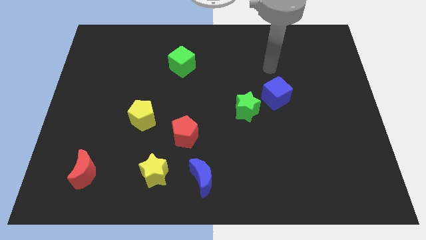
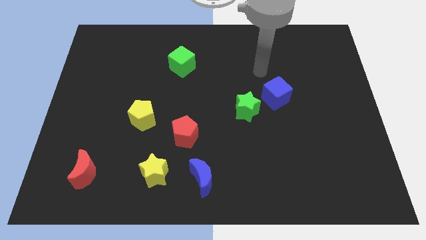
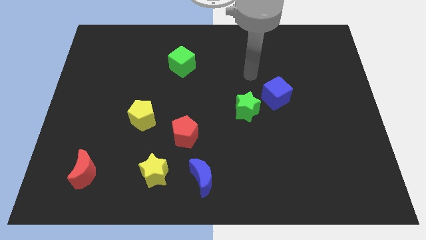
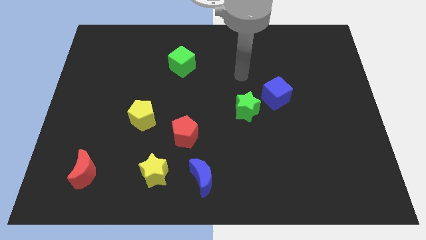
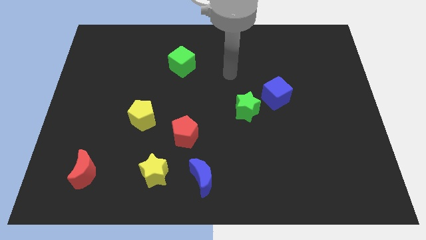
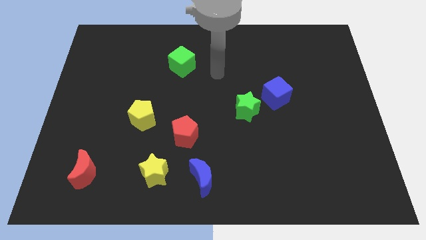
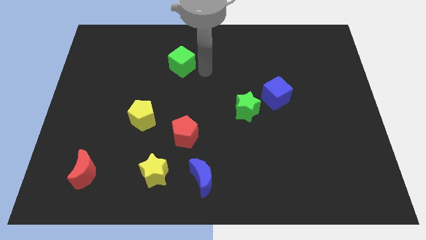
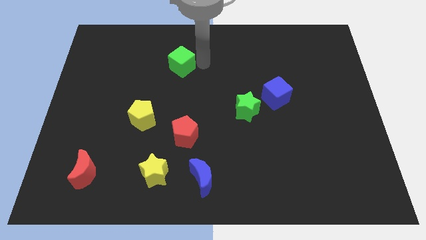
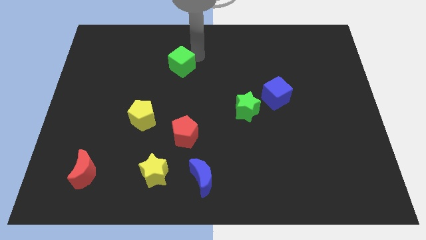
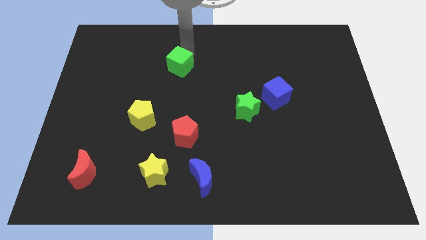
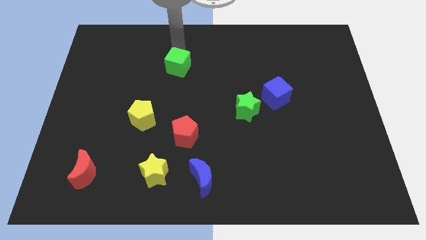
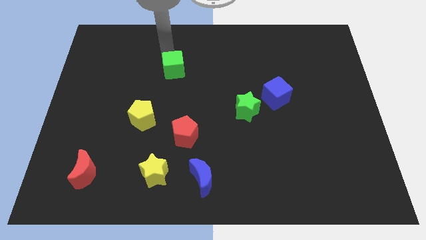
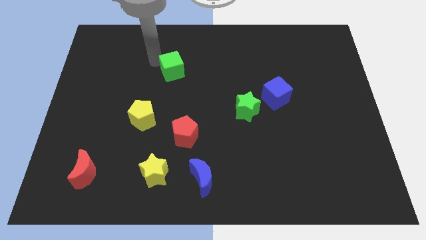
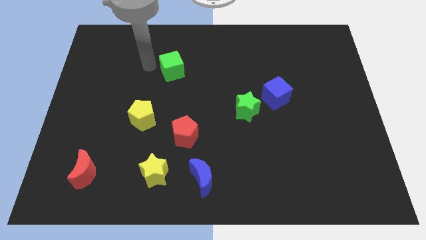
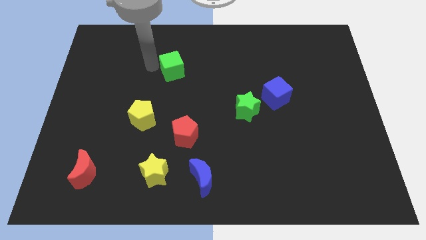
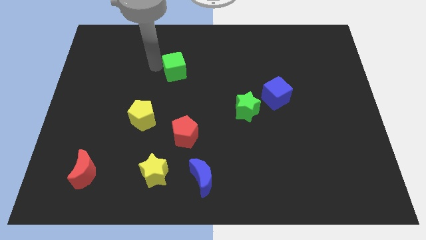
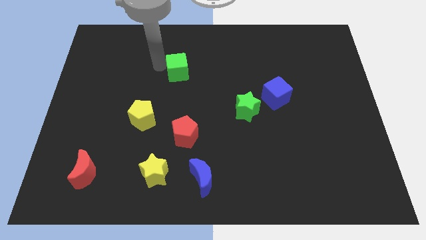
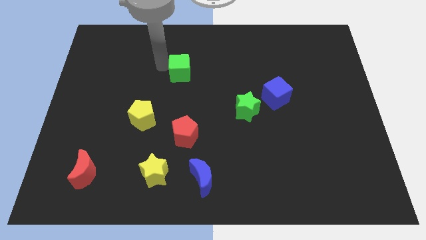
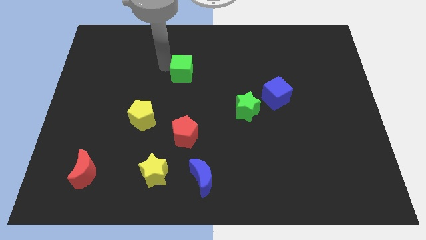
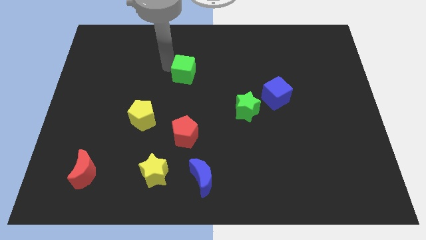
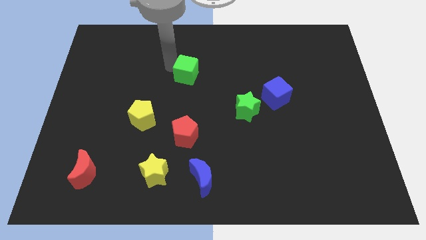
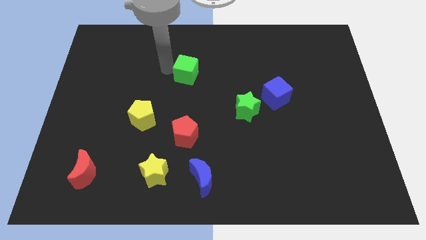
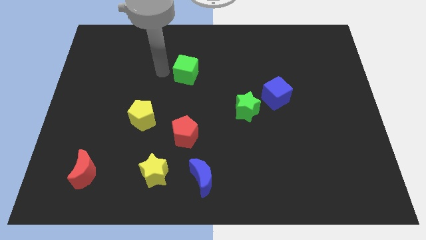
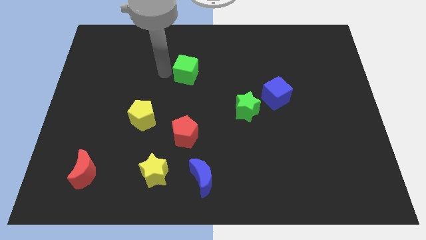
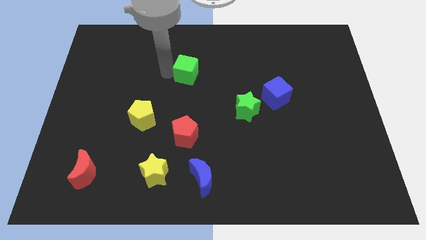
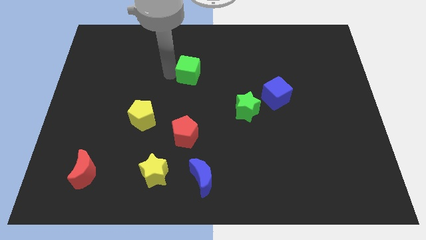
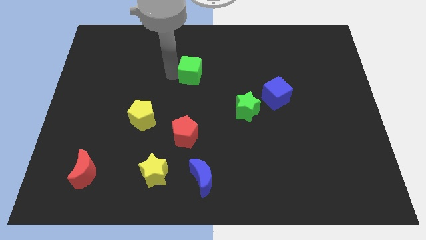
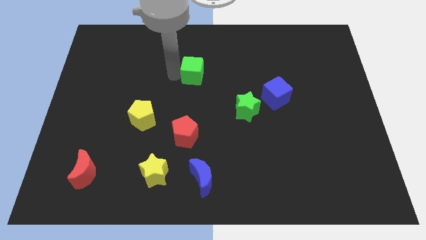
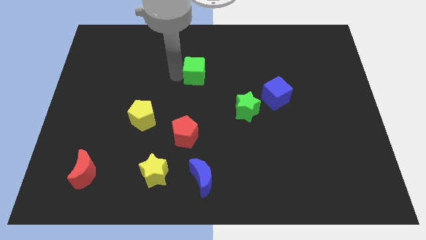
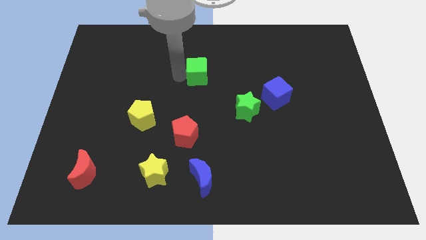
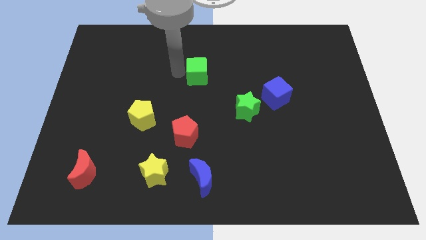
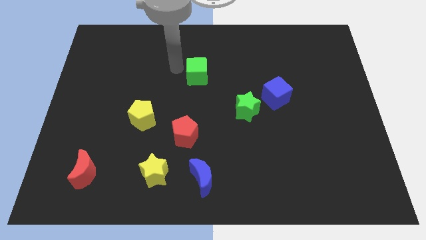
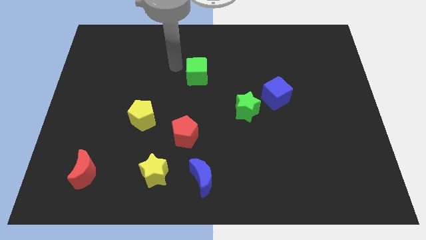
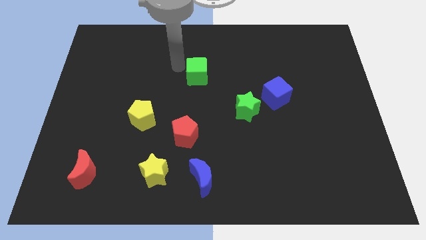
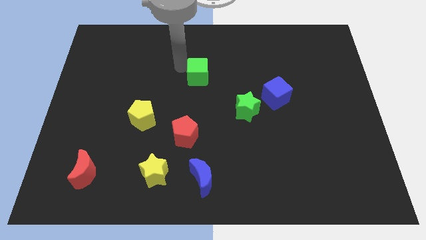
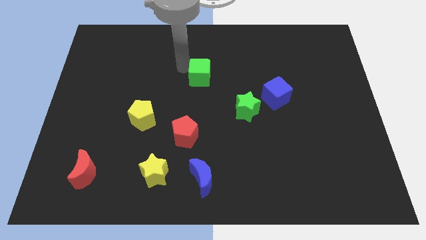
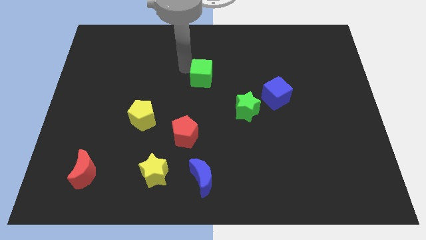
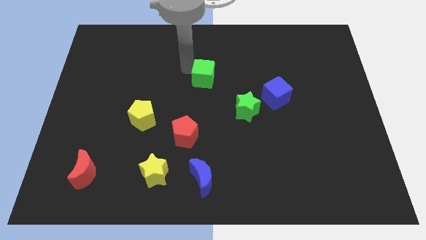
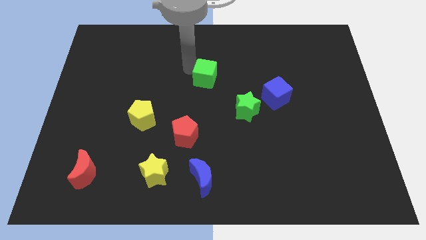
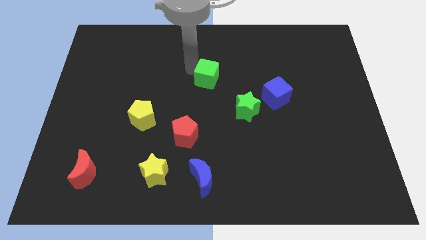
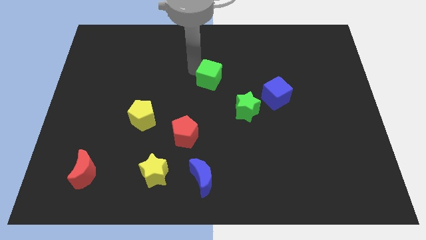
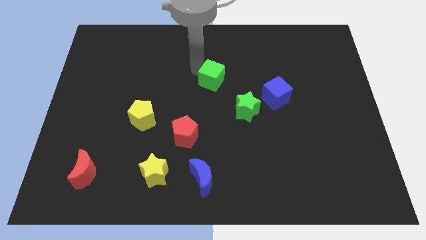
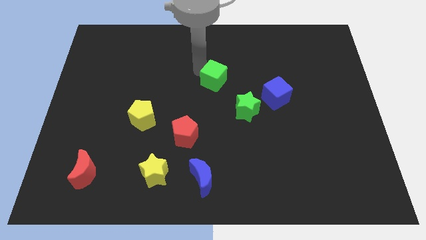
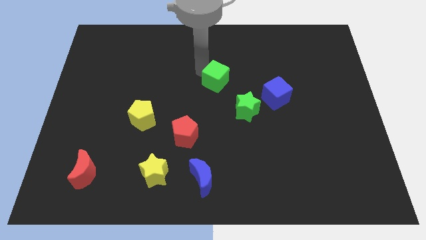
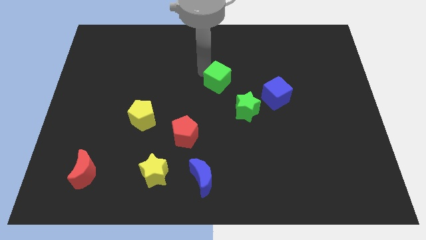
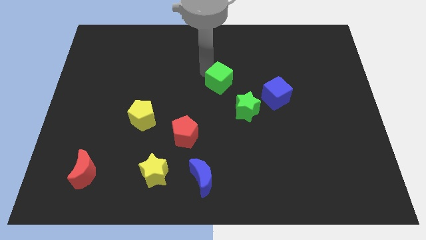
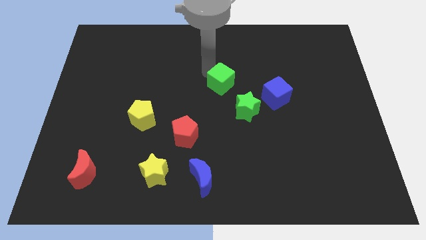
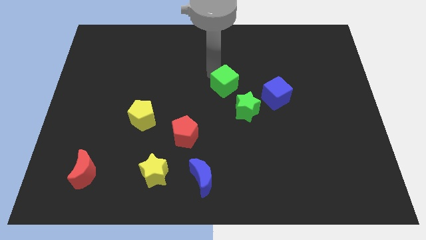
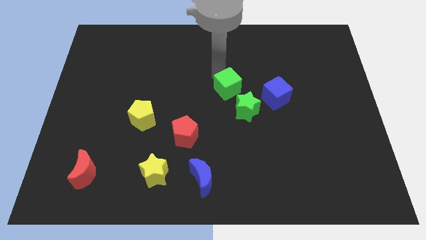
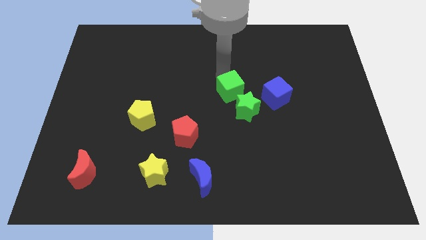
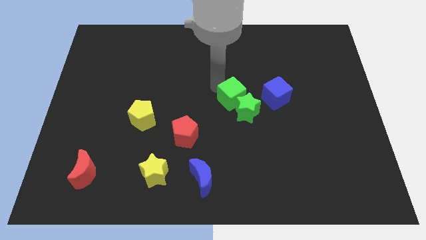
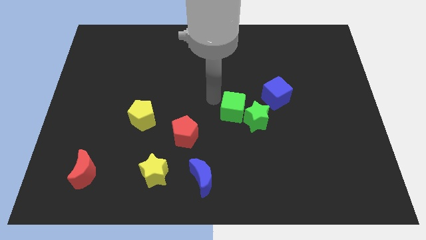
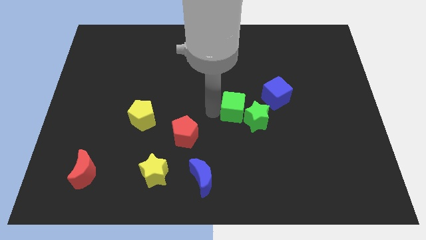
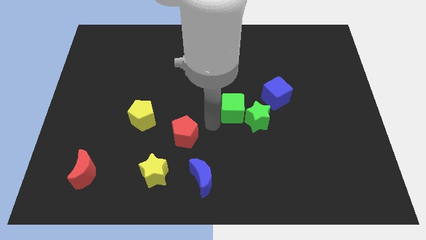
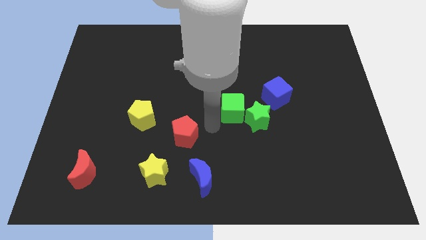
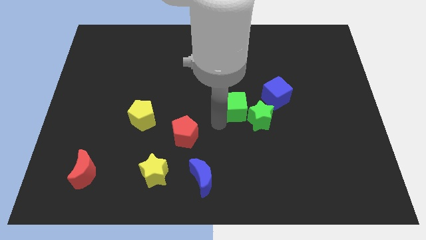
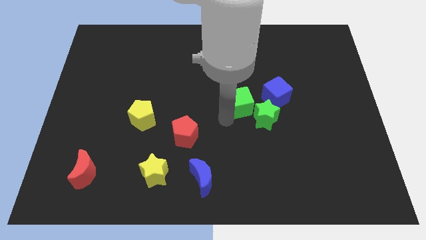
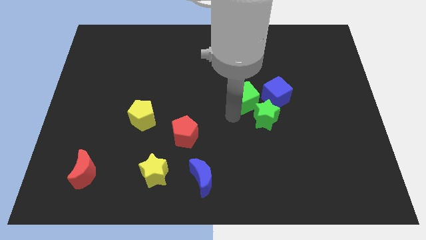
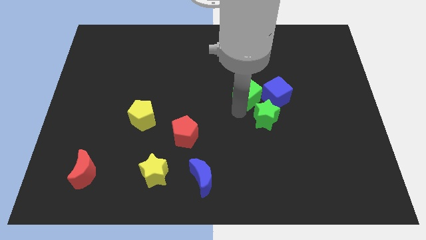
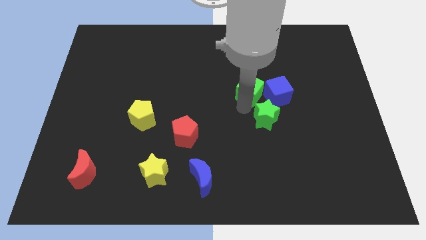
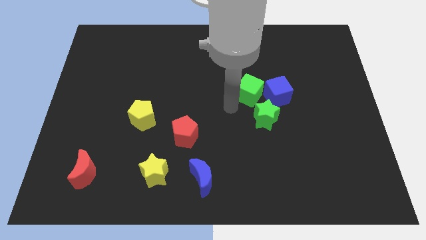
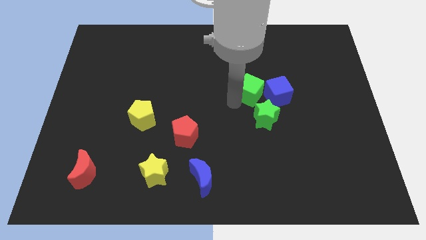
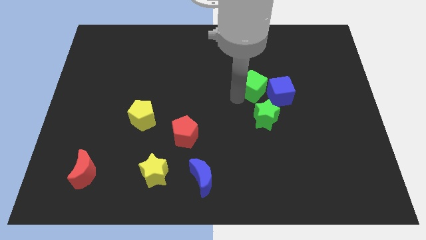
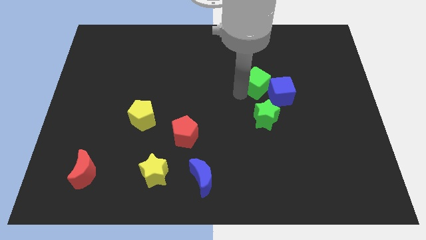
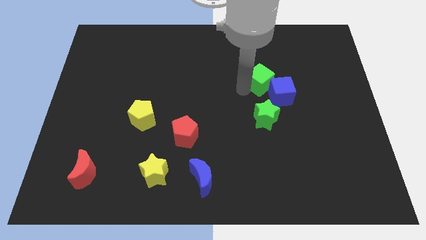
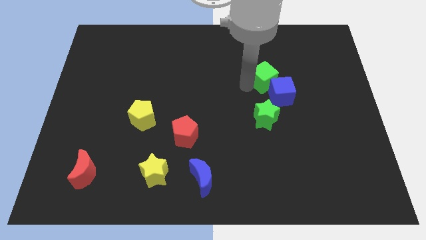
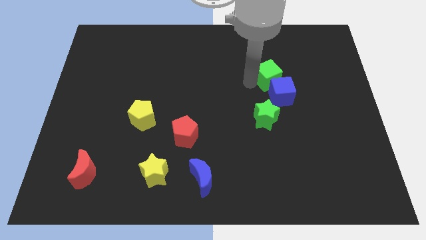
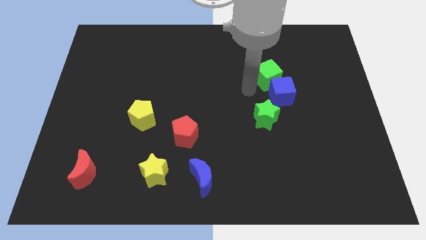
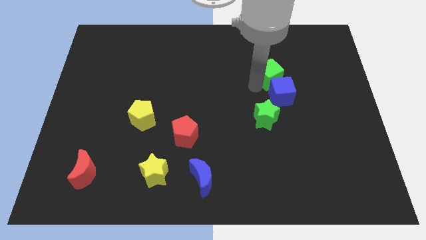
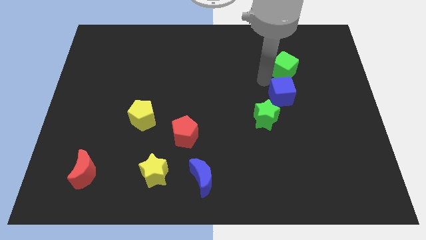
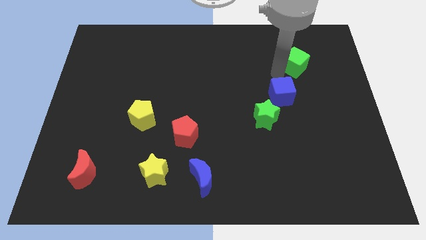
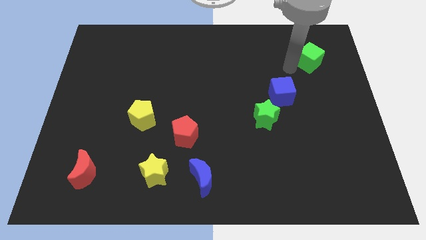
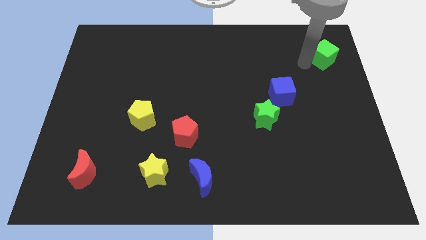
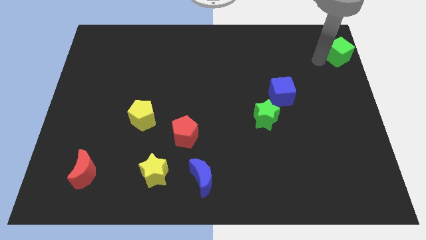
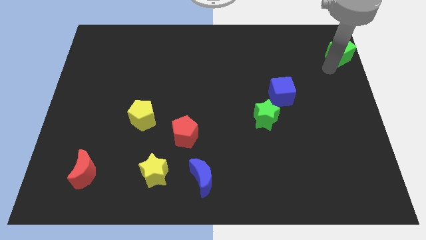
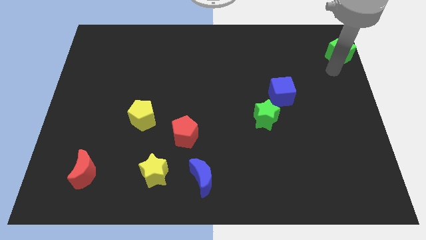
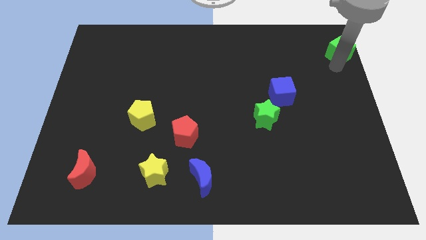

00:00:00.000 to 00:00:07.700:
slide the green cube to the top right of the board
